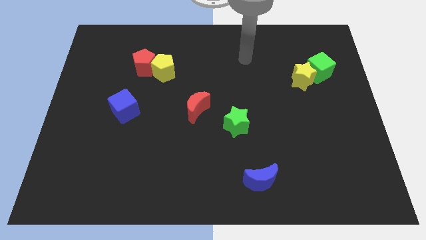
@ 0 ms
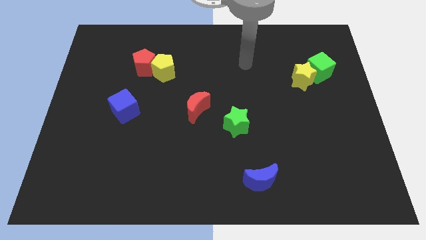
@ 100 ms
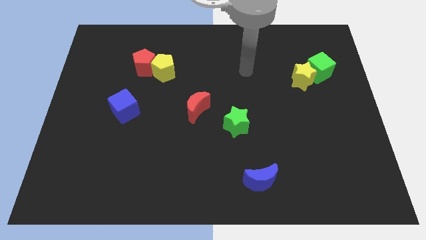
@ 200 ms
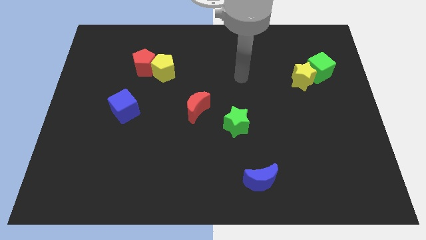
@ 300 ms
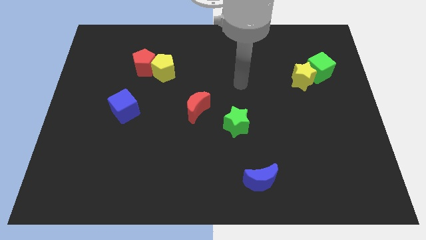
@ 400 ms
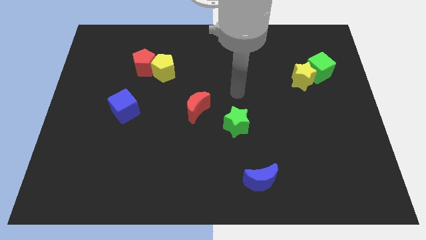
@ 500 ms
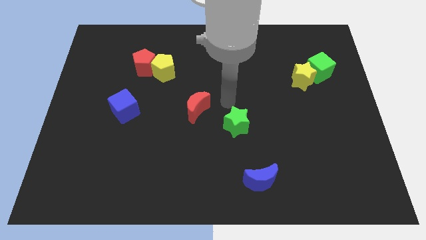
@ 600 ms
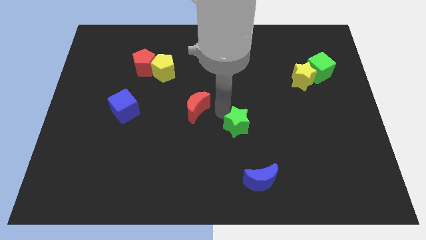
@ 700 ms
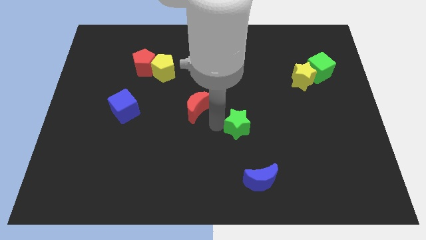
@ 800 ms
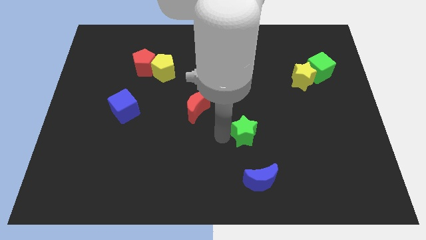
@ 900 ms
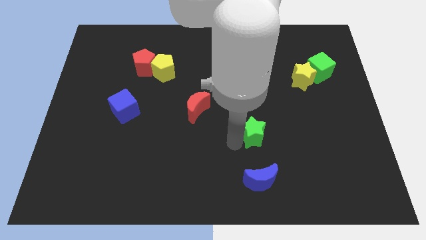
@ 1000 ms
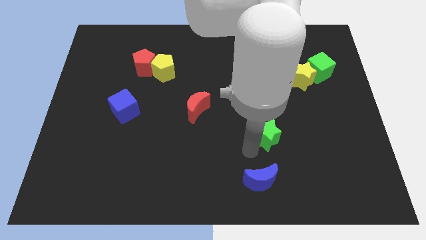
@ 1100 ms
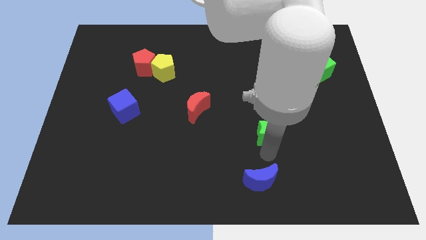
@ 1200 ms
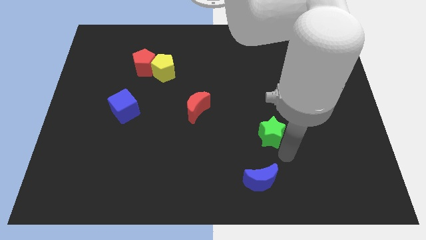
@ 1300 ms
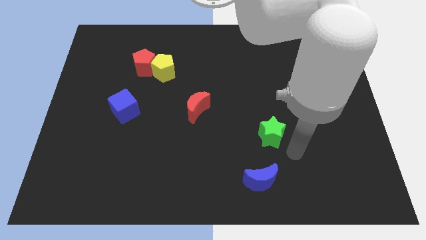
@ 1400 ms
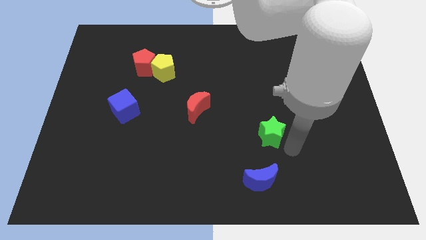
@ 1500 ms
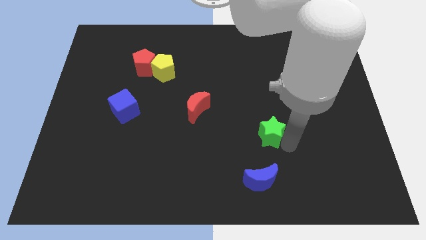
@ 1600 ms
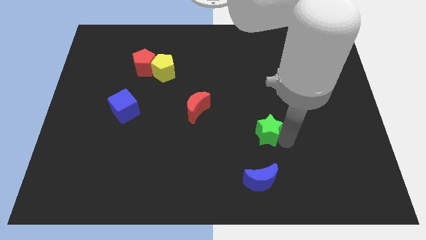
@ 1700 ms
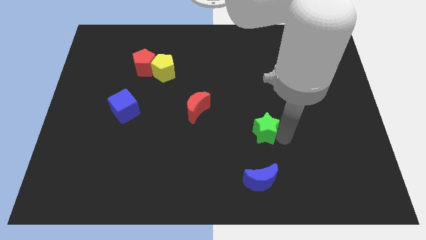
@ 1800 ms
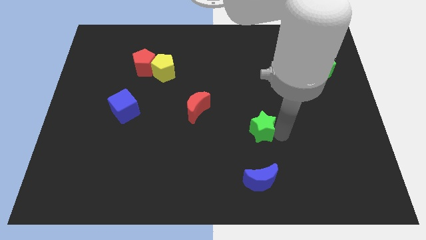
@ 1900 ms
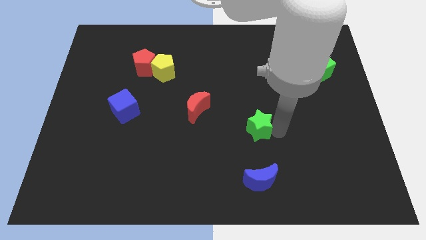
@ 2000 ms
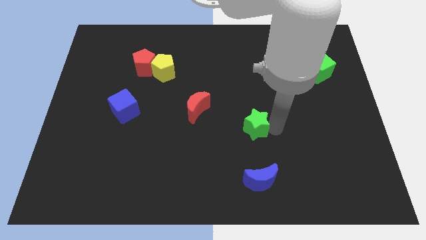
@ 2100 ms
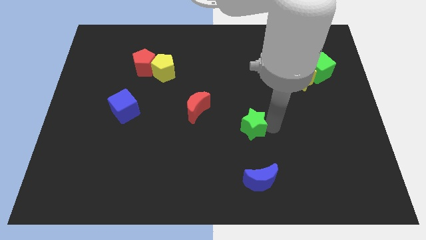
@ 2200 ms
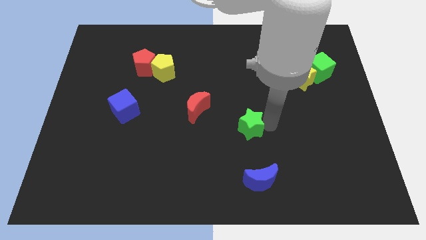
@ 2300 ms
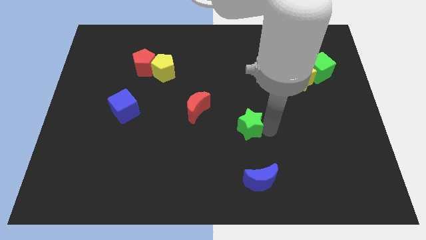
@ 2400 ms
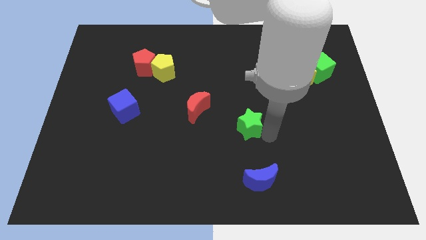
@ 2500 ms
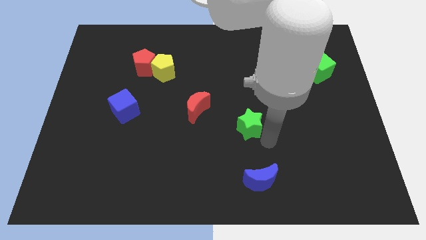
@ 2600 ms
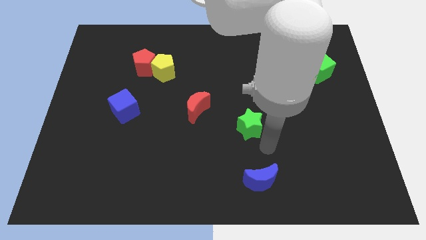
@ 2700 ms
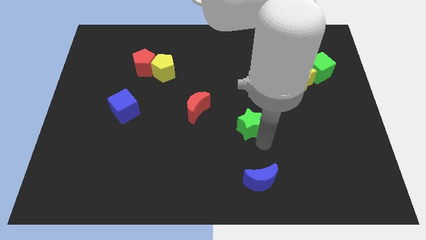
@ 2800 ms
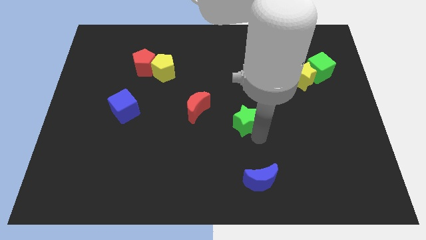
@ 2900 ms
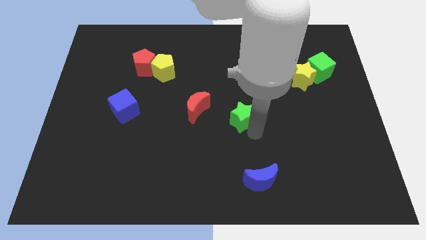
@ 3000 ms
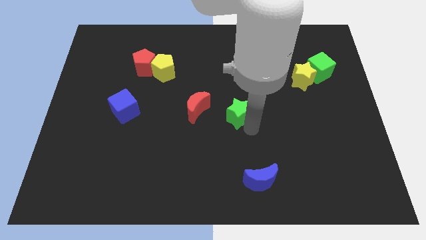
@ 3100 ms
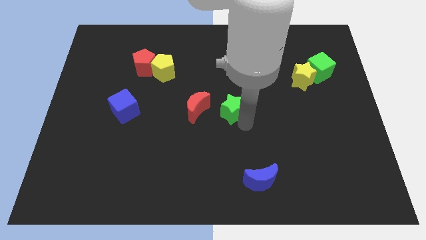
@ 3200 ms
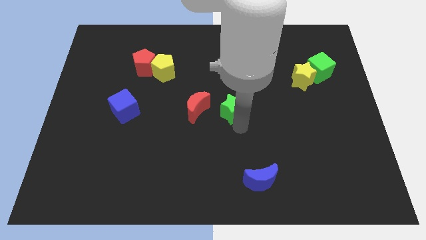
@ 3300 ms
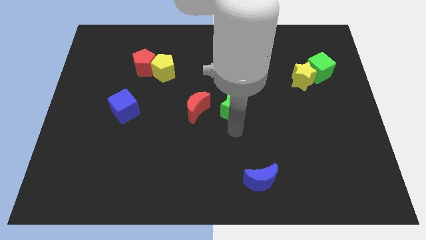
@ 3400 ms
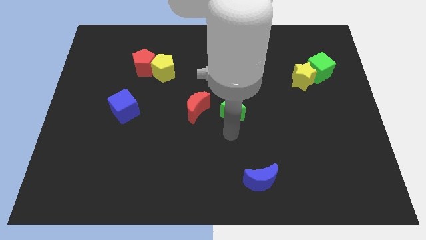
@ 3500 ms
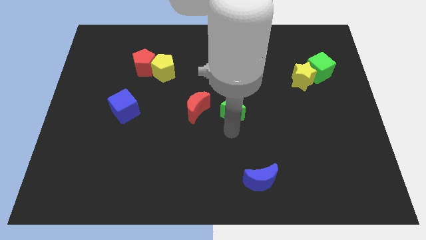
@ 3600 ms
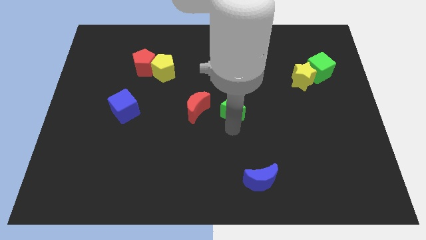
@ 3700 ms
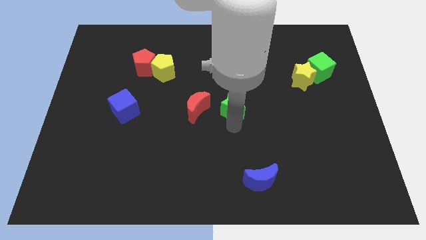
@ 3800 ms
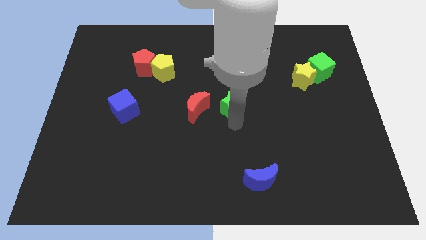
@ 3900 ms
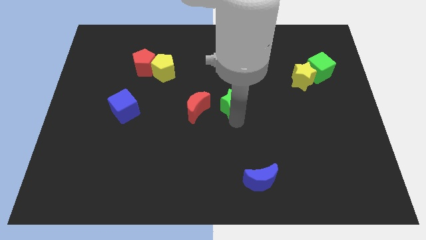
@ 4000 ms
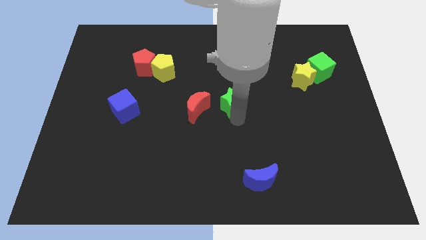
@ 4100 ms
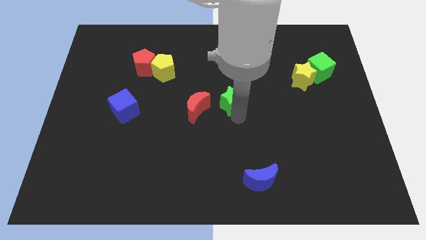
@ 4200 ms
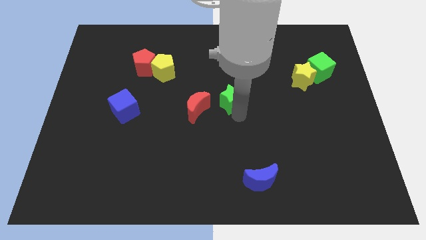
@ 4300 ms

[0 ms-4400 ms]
push the green star a bit upwards

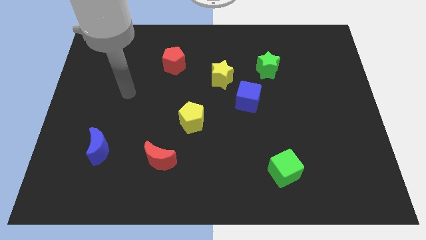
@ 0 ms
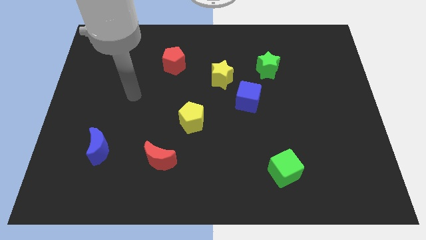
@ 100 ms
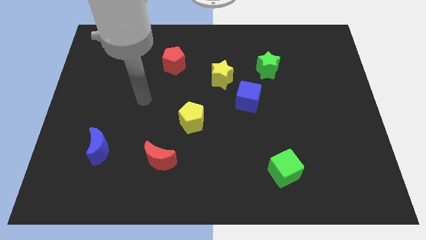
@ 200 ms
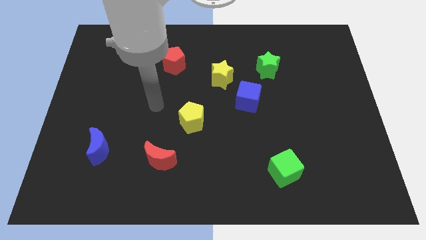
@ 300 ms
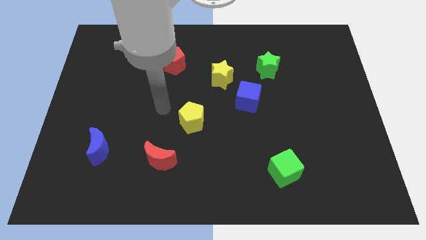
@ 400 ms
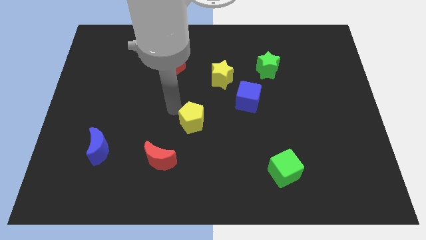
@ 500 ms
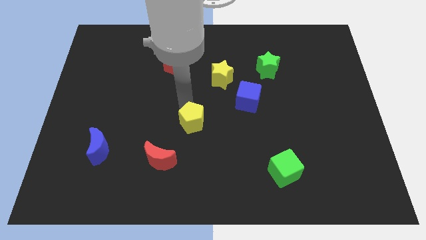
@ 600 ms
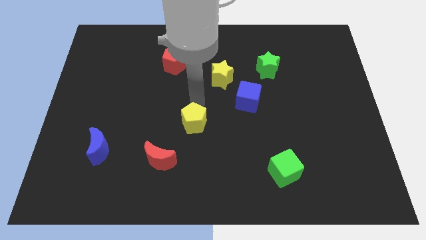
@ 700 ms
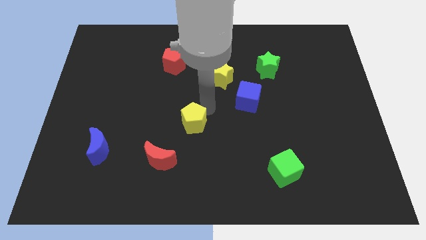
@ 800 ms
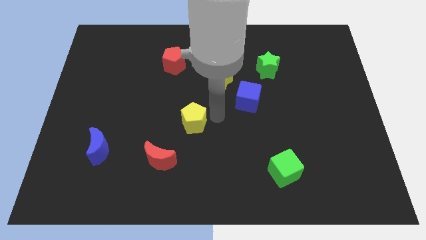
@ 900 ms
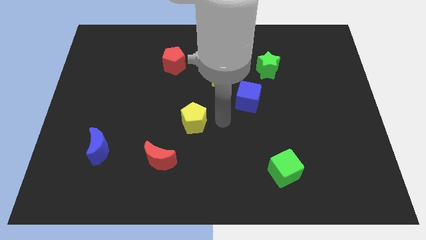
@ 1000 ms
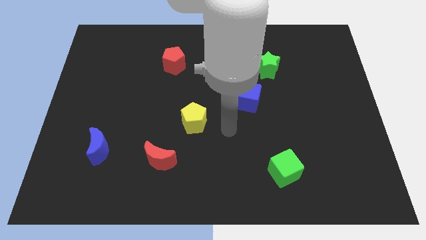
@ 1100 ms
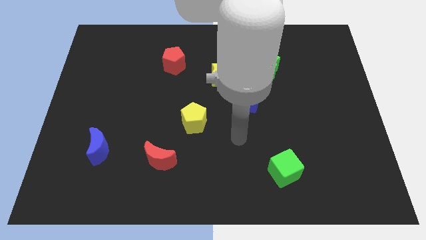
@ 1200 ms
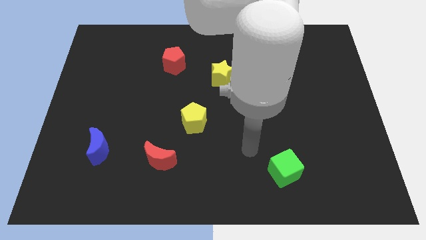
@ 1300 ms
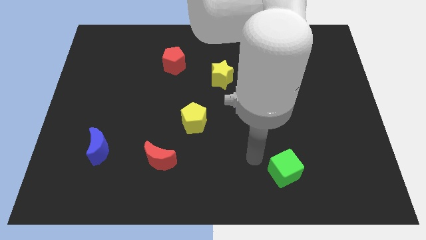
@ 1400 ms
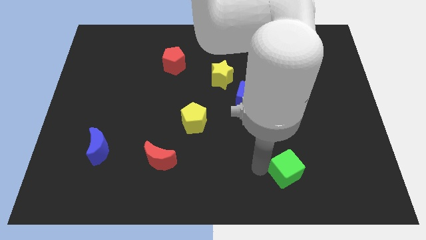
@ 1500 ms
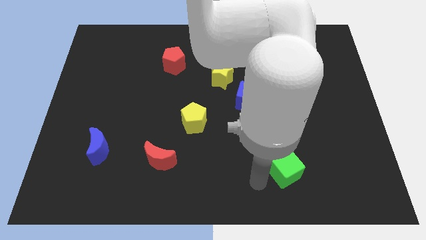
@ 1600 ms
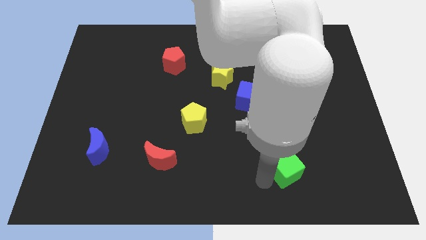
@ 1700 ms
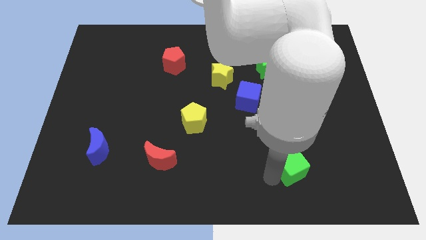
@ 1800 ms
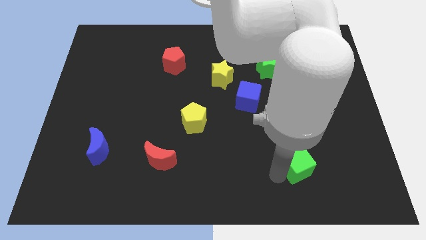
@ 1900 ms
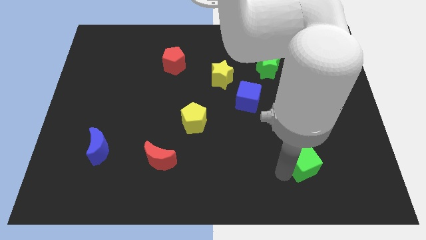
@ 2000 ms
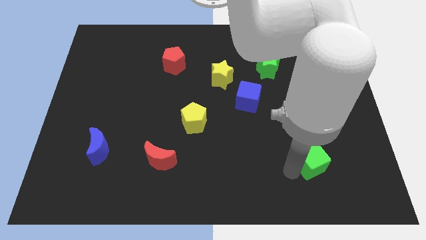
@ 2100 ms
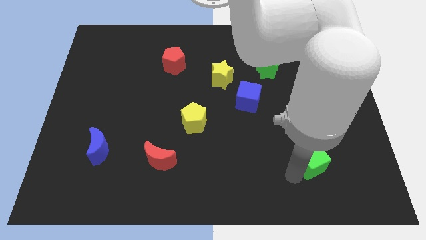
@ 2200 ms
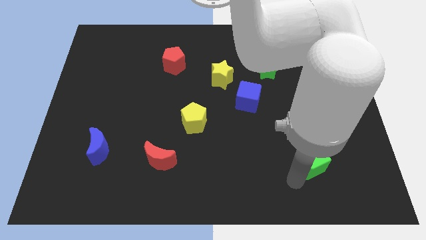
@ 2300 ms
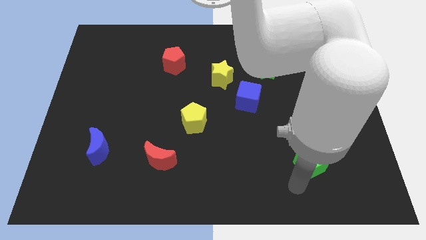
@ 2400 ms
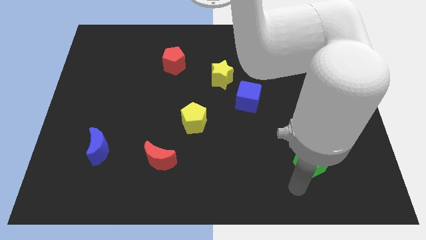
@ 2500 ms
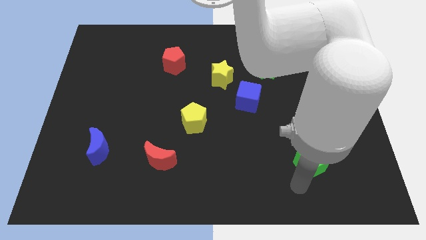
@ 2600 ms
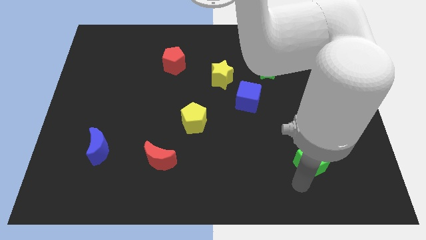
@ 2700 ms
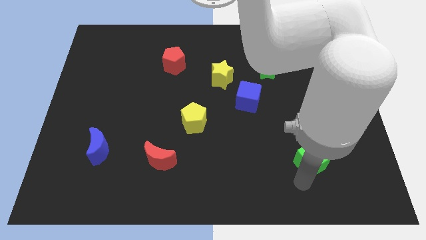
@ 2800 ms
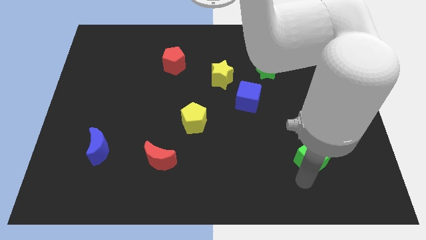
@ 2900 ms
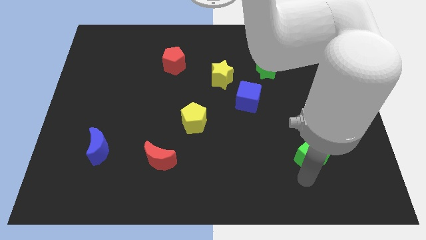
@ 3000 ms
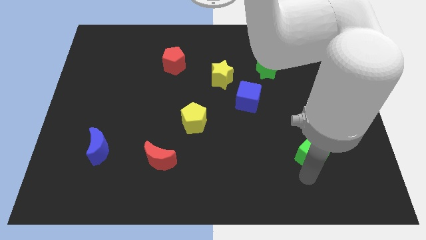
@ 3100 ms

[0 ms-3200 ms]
slightly move the green cube diagonally up and right

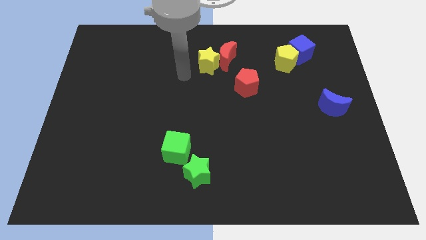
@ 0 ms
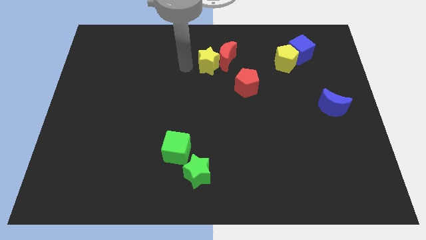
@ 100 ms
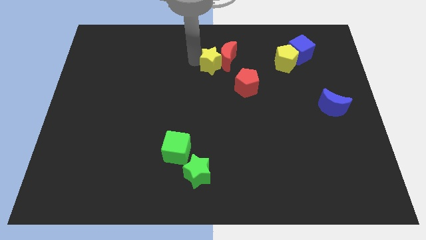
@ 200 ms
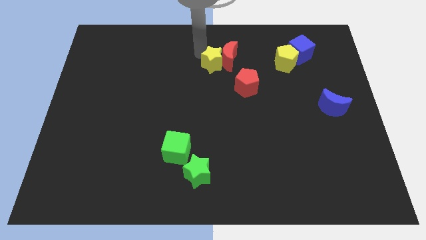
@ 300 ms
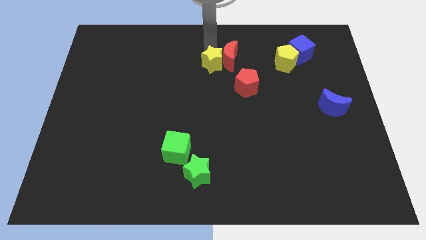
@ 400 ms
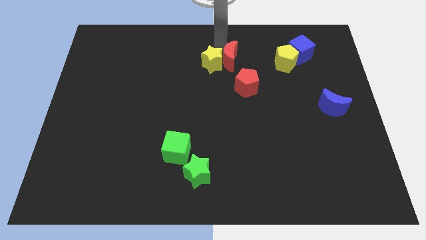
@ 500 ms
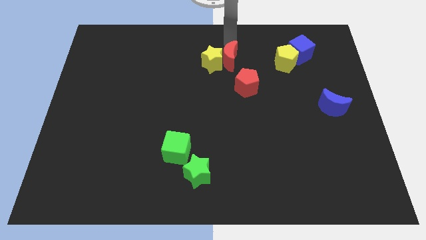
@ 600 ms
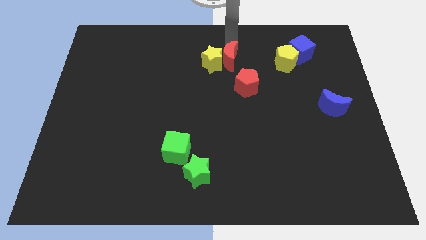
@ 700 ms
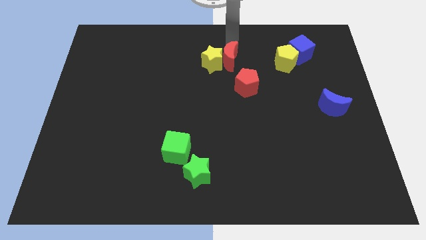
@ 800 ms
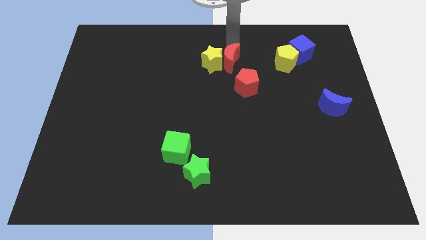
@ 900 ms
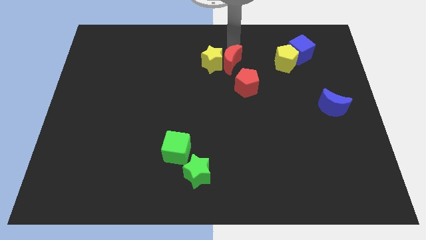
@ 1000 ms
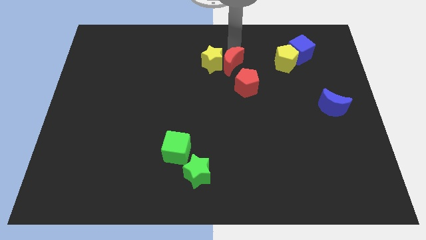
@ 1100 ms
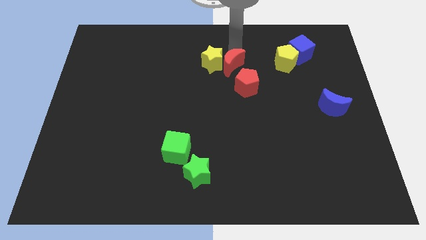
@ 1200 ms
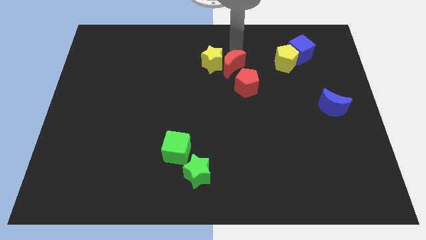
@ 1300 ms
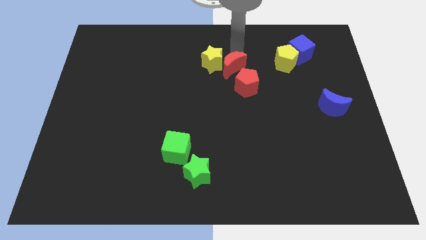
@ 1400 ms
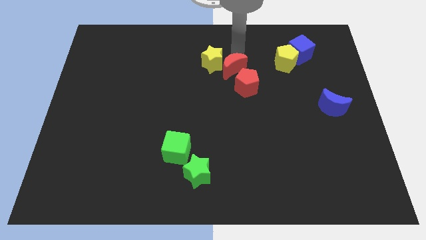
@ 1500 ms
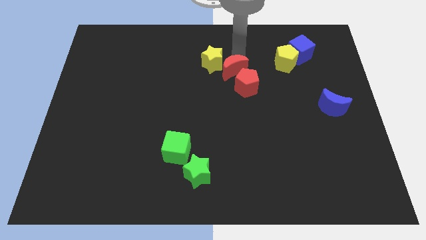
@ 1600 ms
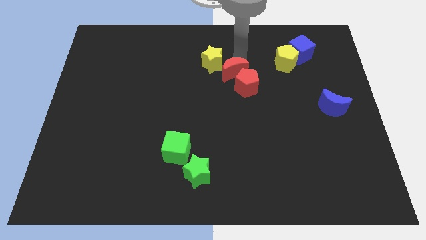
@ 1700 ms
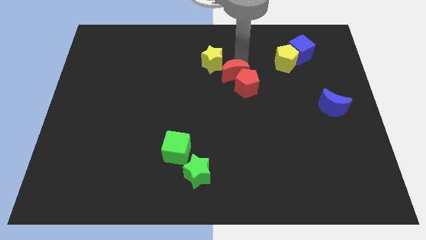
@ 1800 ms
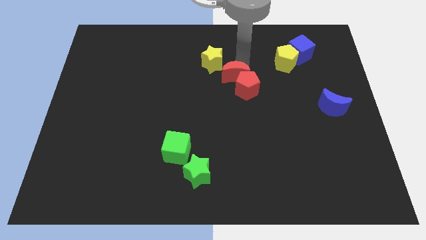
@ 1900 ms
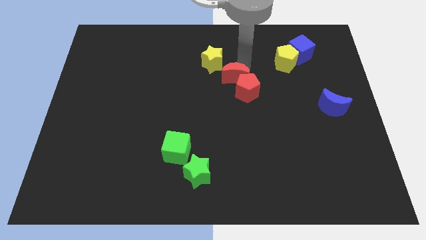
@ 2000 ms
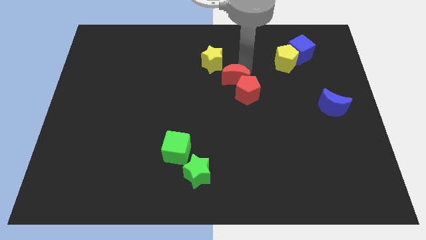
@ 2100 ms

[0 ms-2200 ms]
slightly slide the red moon down
